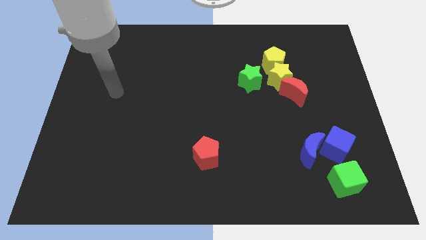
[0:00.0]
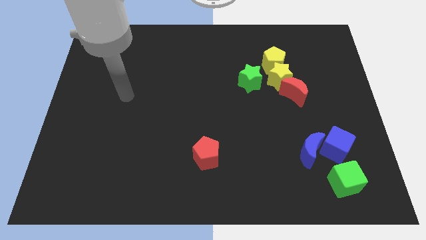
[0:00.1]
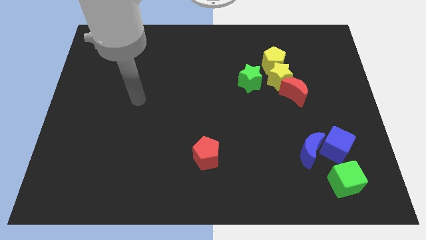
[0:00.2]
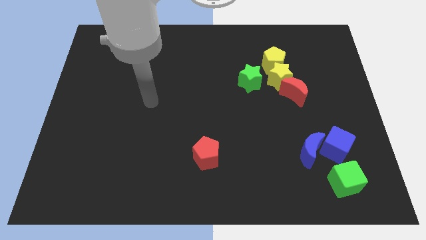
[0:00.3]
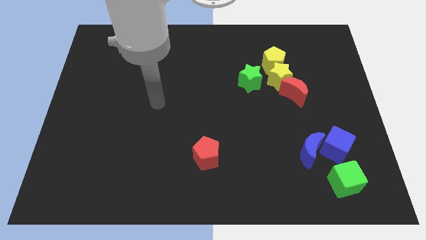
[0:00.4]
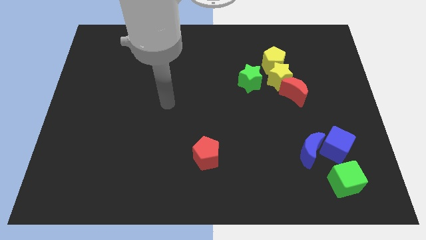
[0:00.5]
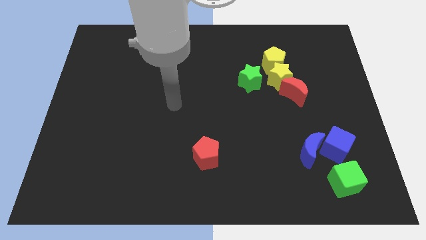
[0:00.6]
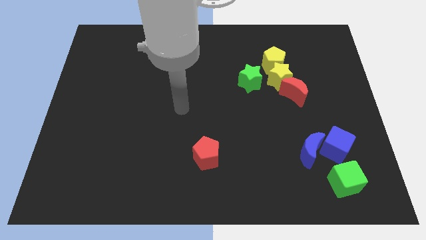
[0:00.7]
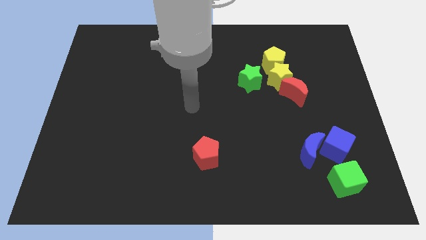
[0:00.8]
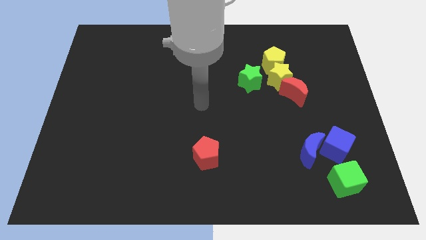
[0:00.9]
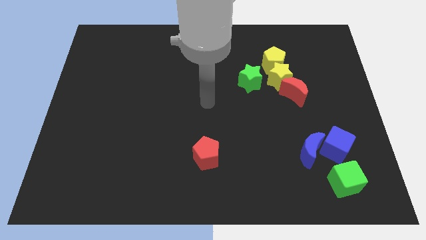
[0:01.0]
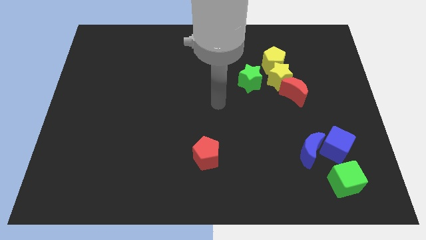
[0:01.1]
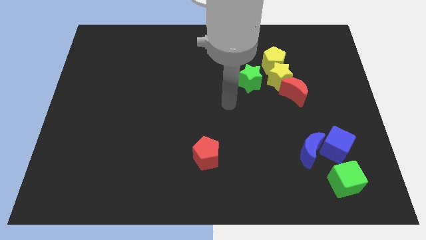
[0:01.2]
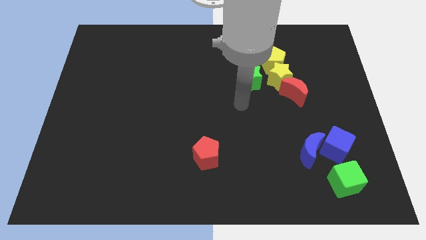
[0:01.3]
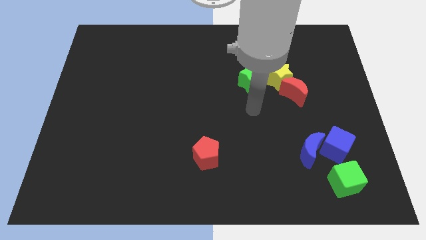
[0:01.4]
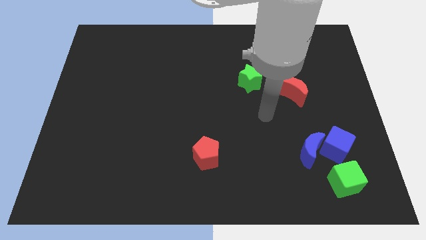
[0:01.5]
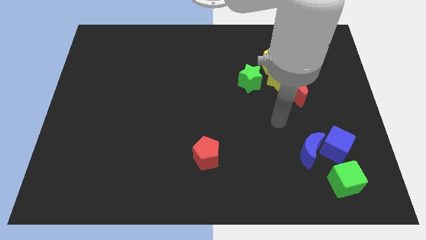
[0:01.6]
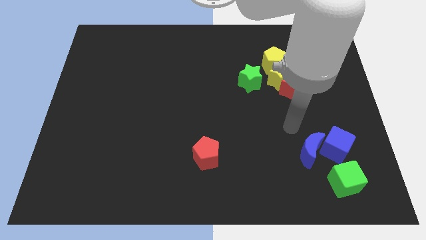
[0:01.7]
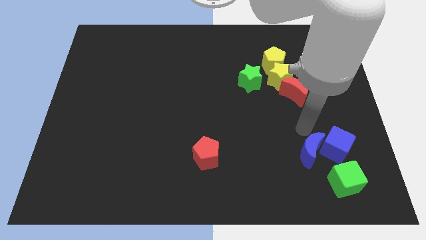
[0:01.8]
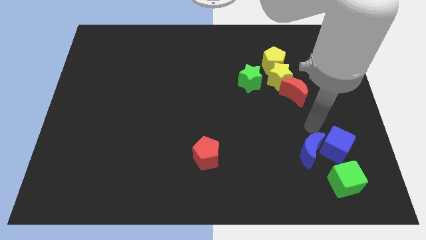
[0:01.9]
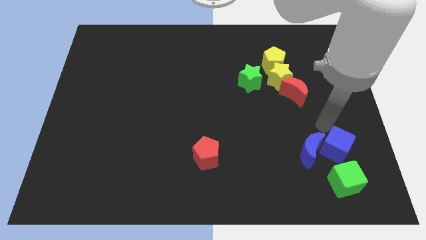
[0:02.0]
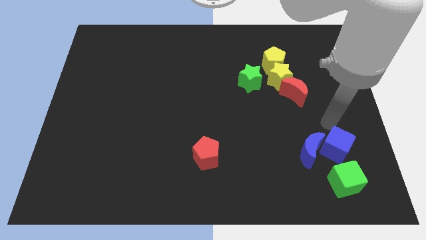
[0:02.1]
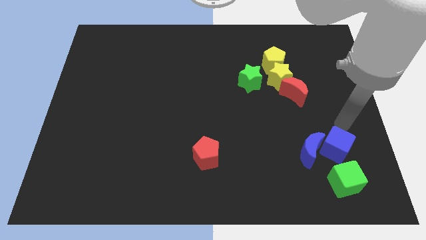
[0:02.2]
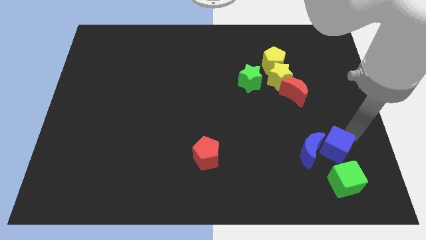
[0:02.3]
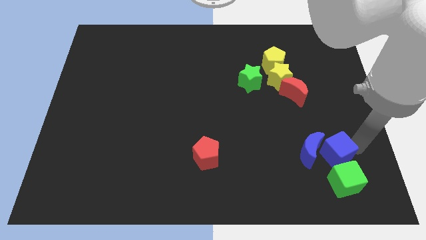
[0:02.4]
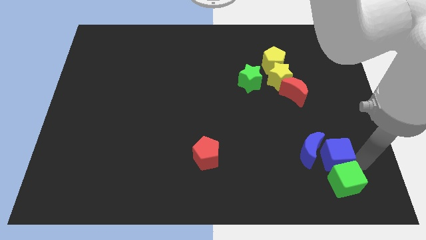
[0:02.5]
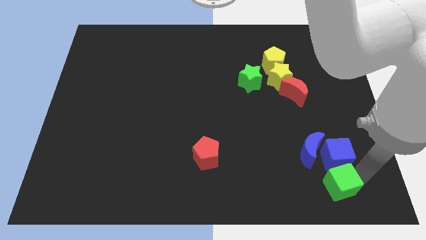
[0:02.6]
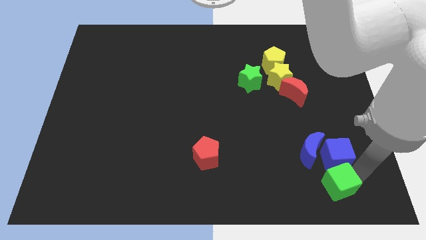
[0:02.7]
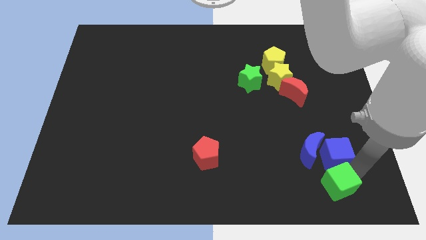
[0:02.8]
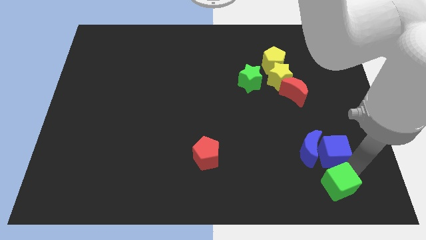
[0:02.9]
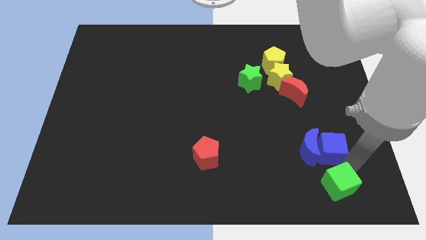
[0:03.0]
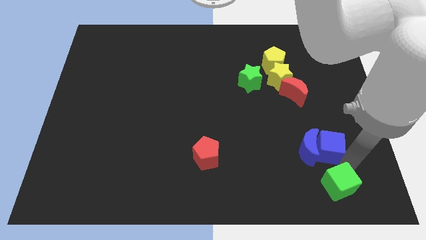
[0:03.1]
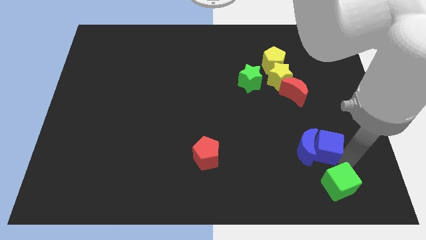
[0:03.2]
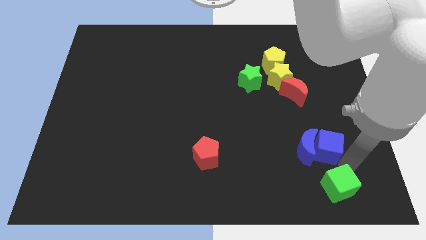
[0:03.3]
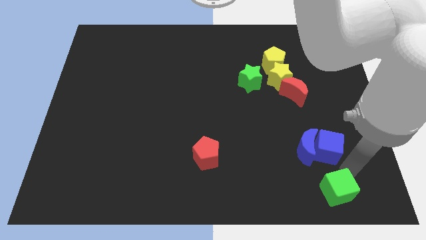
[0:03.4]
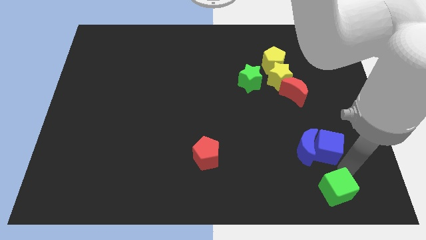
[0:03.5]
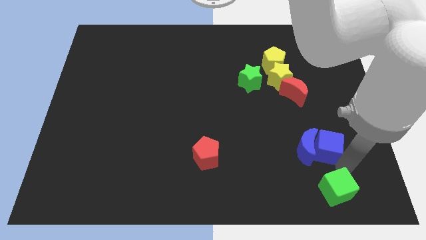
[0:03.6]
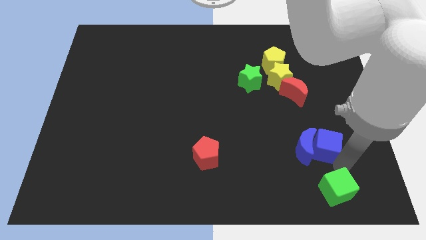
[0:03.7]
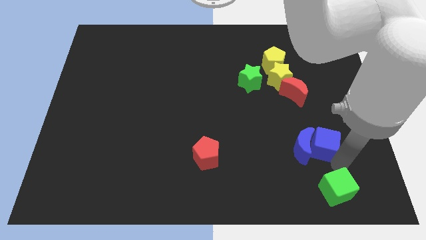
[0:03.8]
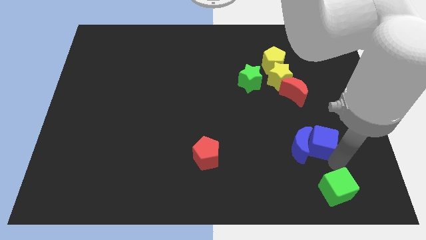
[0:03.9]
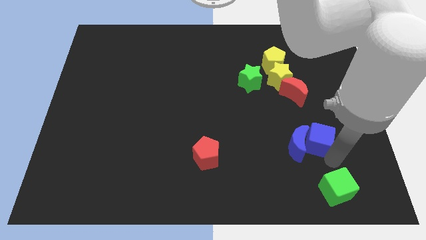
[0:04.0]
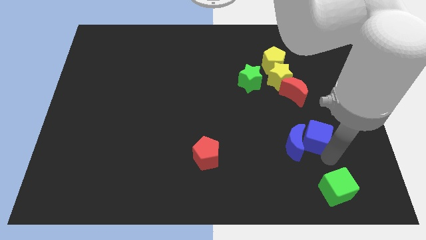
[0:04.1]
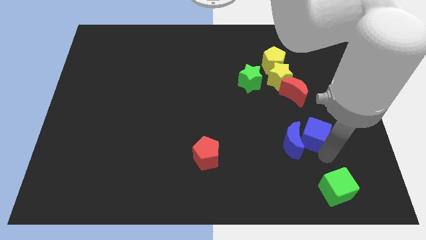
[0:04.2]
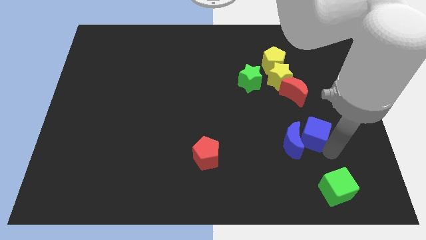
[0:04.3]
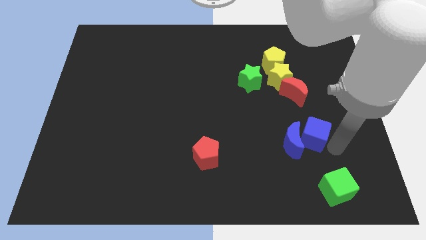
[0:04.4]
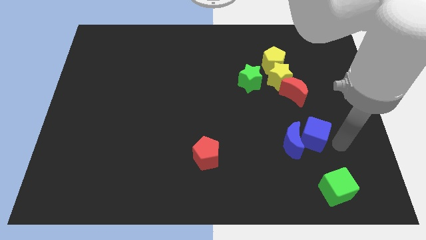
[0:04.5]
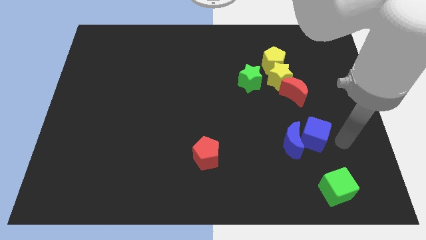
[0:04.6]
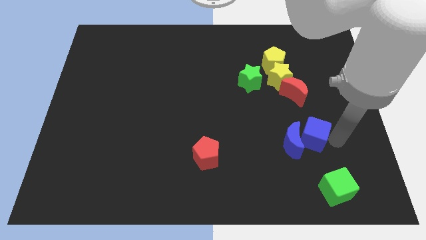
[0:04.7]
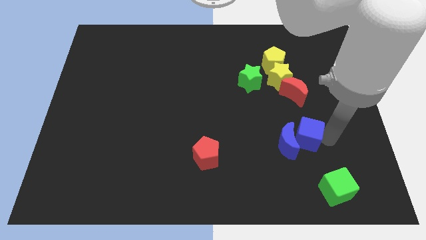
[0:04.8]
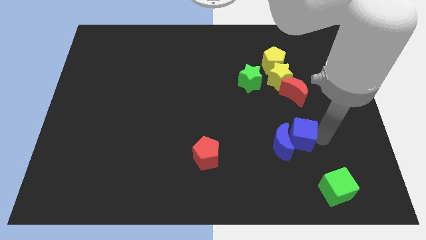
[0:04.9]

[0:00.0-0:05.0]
slightly move the blue cube left

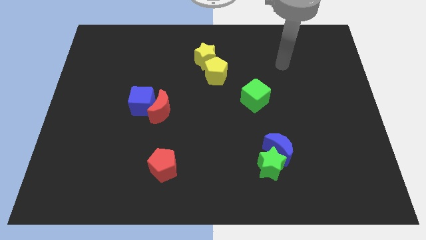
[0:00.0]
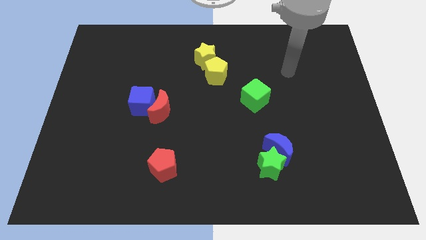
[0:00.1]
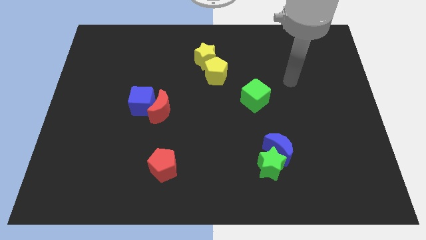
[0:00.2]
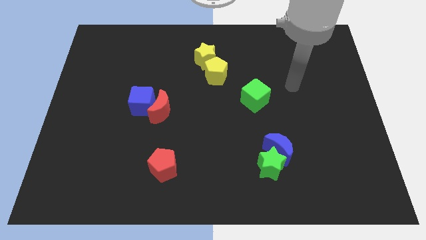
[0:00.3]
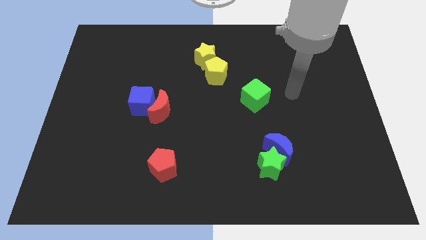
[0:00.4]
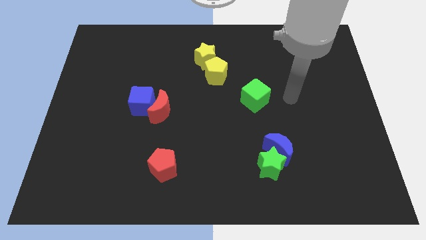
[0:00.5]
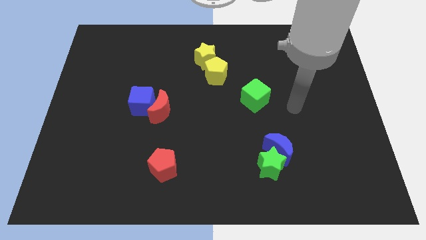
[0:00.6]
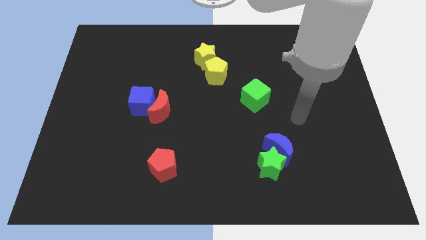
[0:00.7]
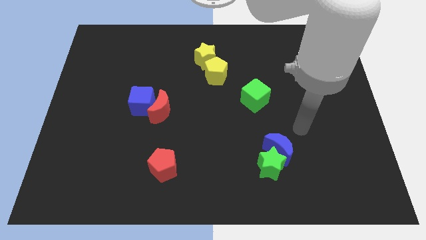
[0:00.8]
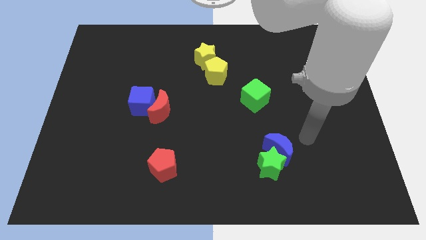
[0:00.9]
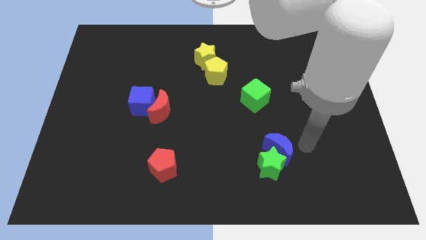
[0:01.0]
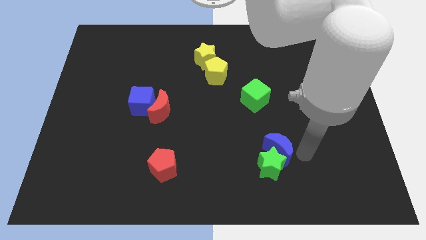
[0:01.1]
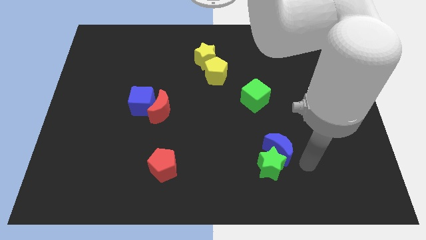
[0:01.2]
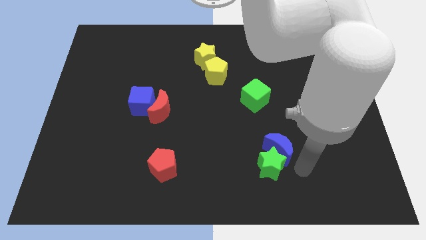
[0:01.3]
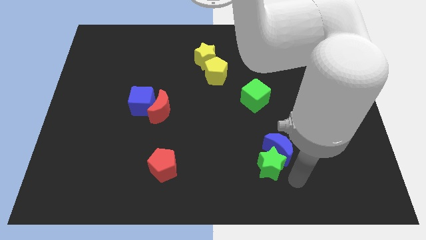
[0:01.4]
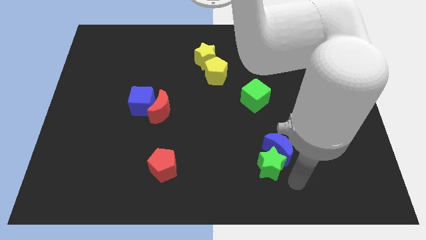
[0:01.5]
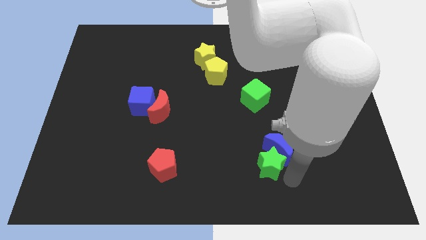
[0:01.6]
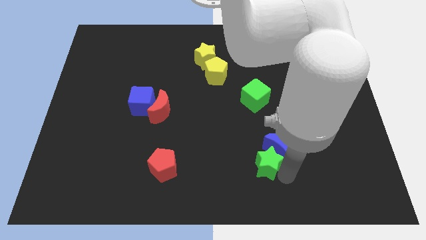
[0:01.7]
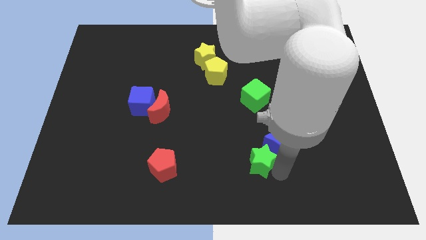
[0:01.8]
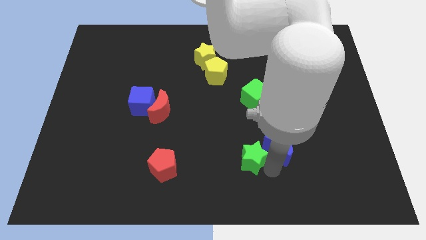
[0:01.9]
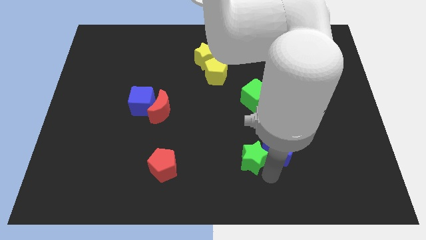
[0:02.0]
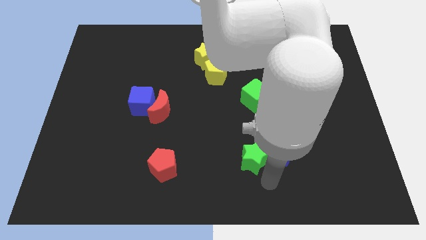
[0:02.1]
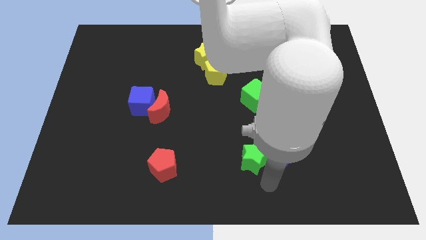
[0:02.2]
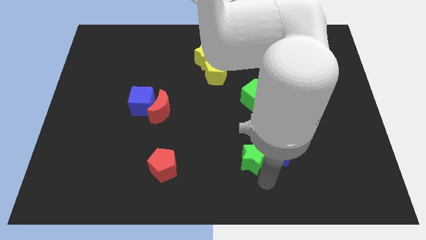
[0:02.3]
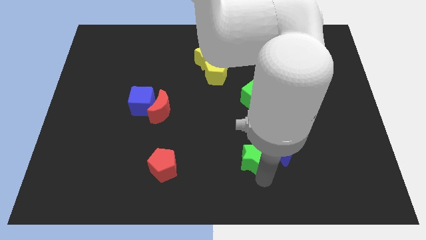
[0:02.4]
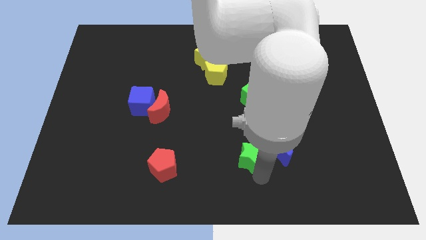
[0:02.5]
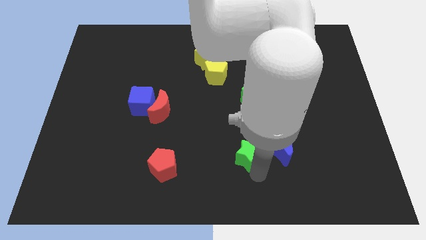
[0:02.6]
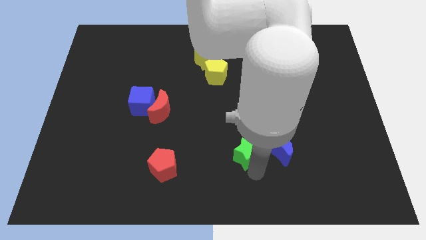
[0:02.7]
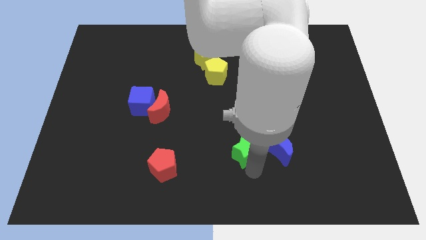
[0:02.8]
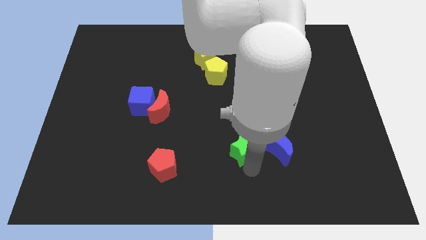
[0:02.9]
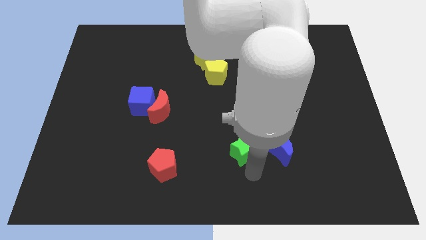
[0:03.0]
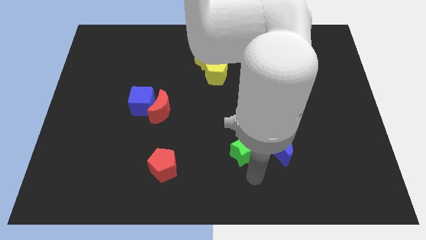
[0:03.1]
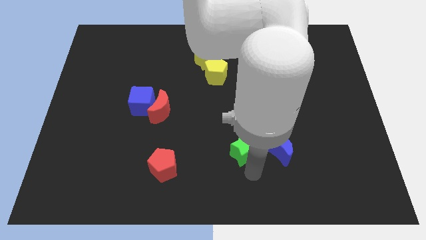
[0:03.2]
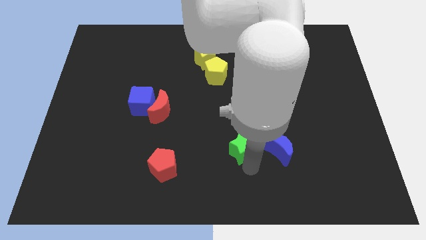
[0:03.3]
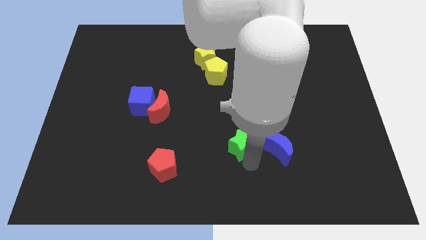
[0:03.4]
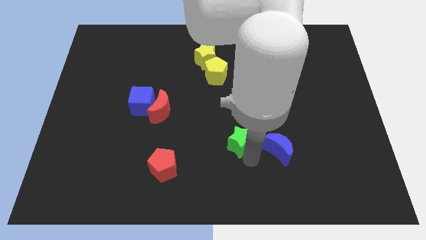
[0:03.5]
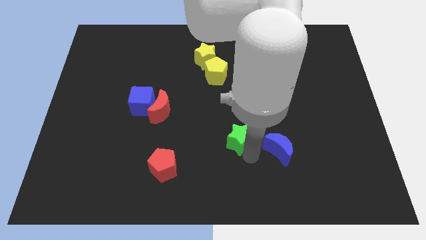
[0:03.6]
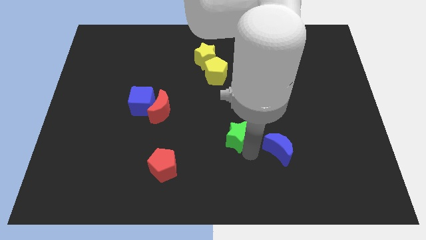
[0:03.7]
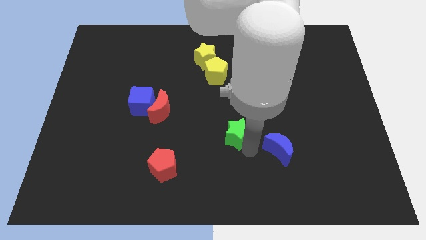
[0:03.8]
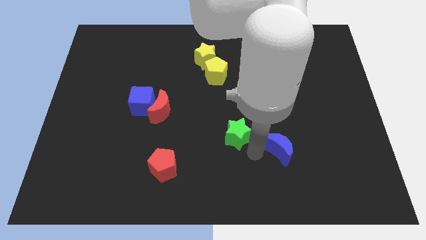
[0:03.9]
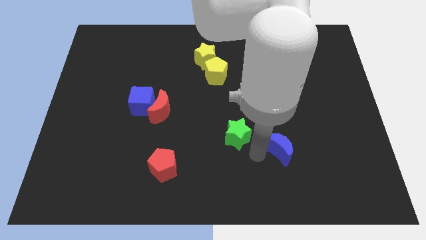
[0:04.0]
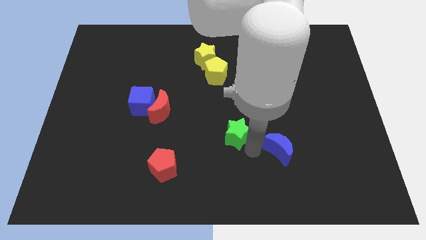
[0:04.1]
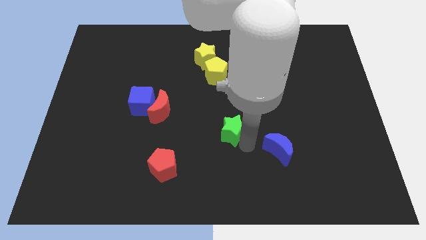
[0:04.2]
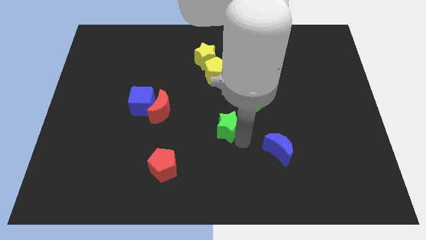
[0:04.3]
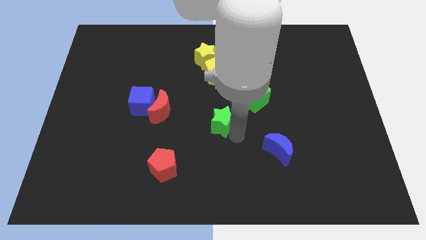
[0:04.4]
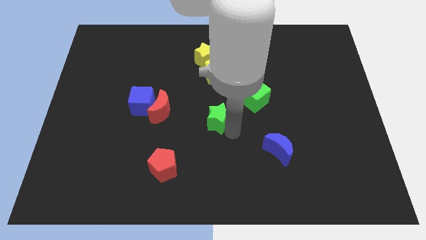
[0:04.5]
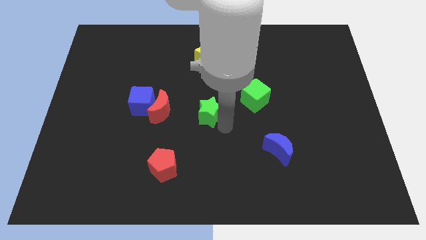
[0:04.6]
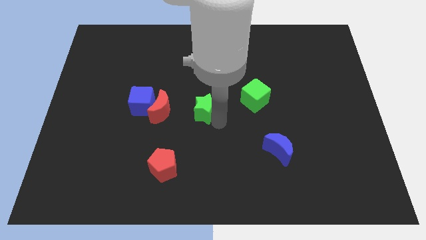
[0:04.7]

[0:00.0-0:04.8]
push the green star up and then to the left
